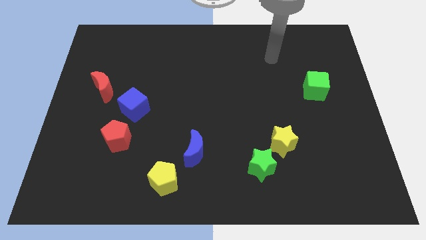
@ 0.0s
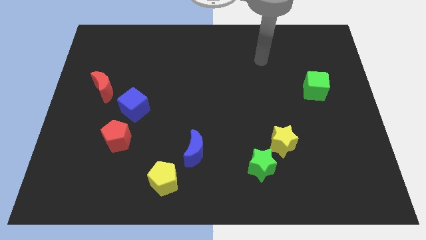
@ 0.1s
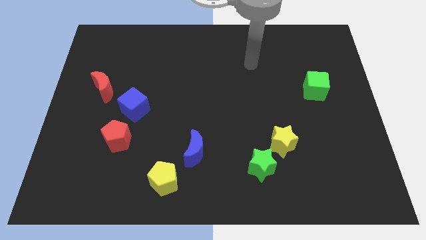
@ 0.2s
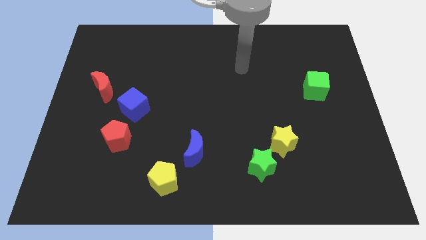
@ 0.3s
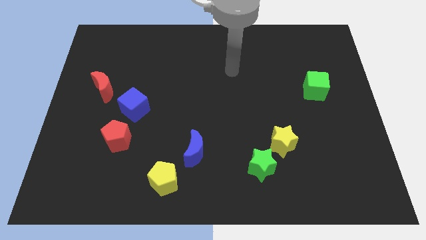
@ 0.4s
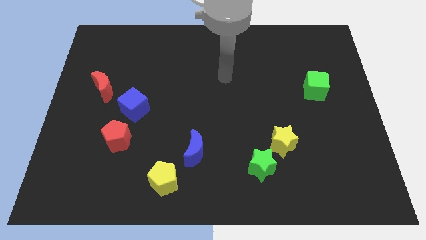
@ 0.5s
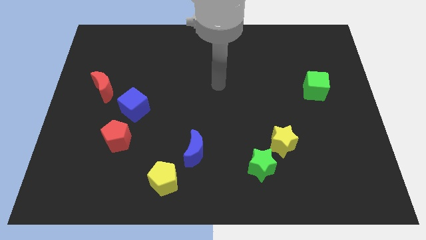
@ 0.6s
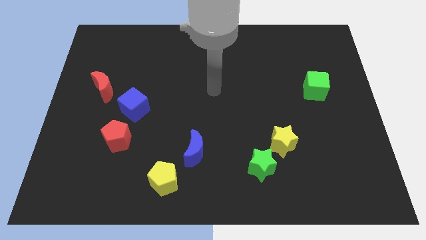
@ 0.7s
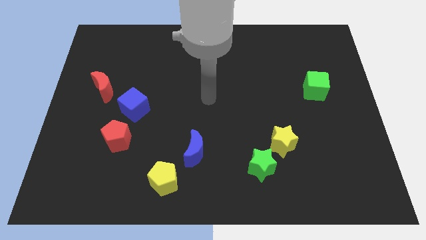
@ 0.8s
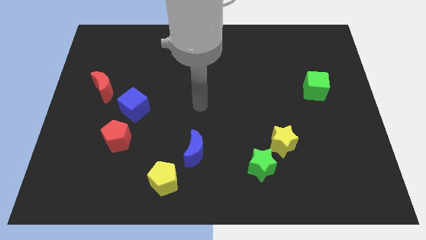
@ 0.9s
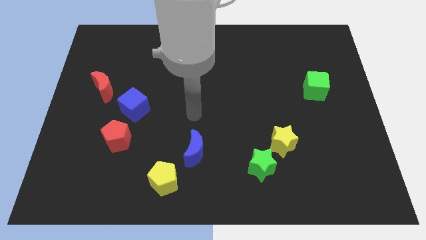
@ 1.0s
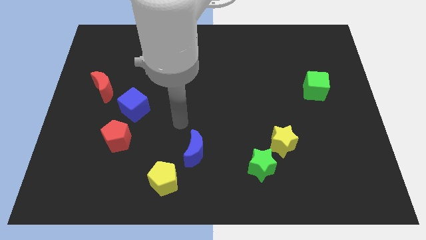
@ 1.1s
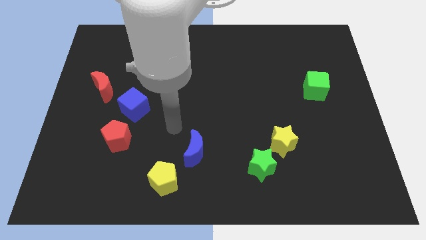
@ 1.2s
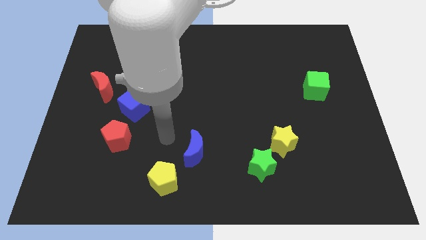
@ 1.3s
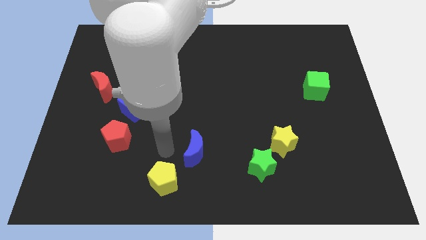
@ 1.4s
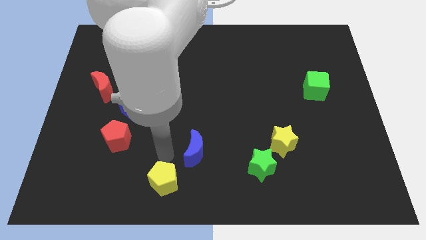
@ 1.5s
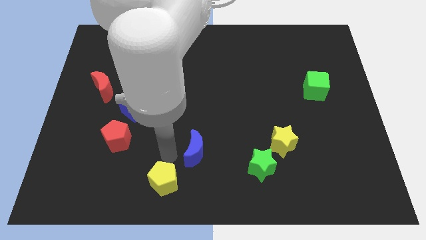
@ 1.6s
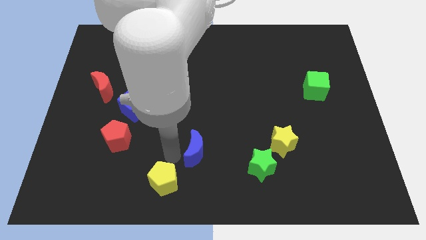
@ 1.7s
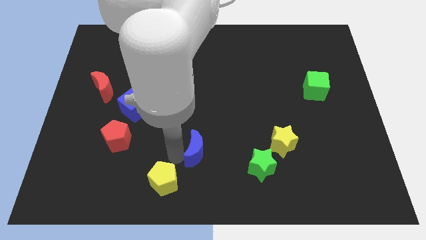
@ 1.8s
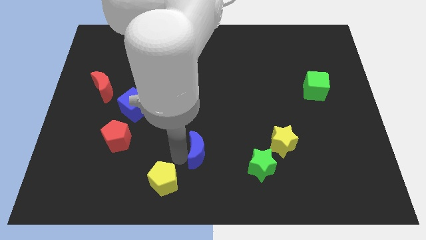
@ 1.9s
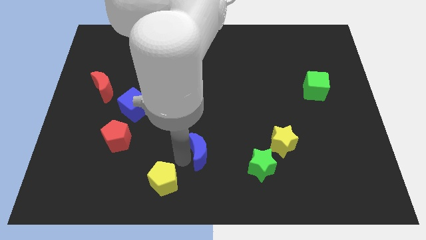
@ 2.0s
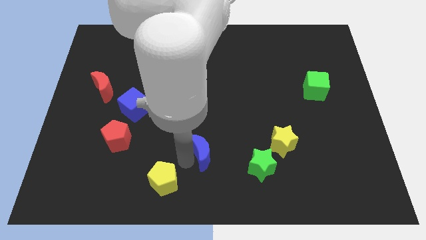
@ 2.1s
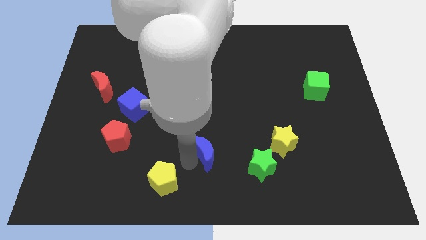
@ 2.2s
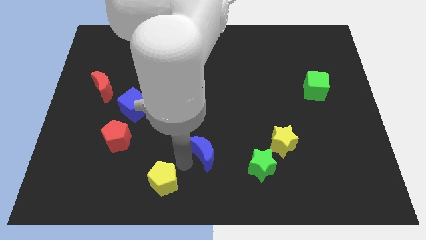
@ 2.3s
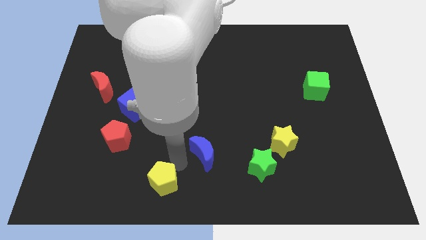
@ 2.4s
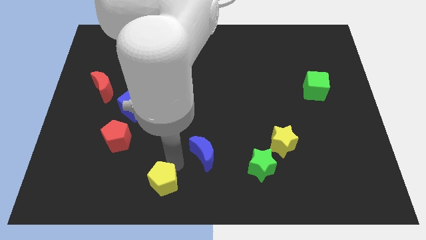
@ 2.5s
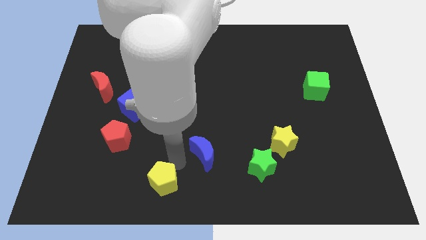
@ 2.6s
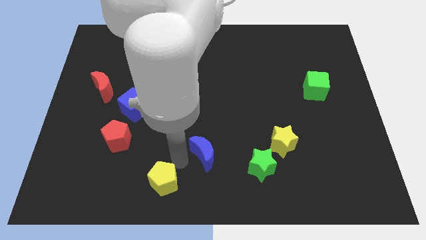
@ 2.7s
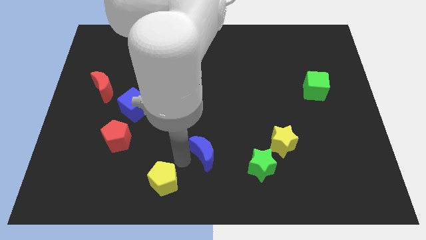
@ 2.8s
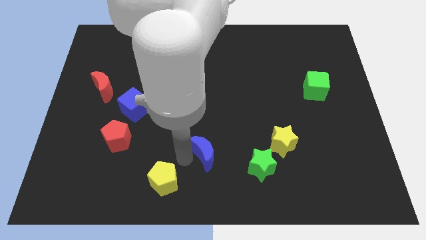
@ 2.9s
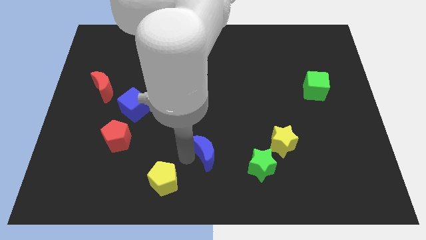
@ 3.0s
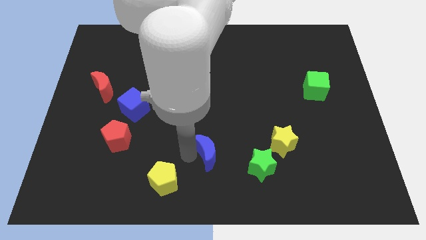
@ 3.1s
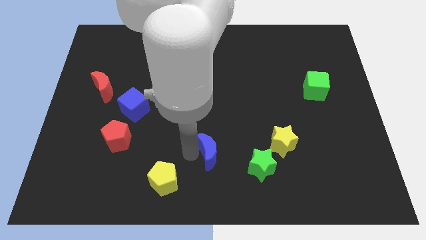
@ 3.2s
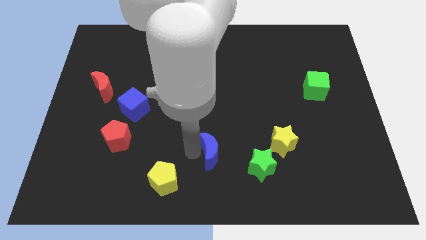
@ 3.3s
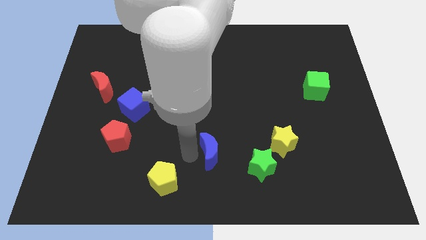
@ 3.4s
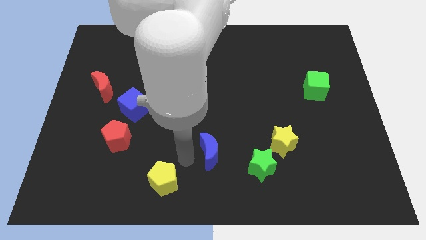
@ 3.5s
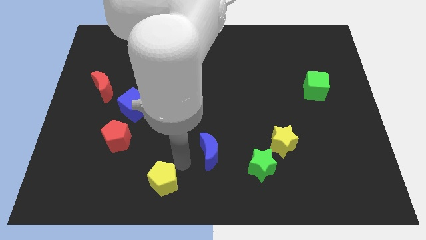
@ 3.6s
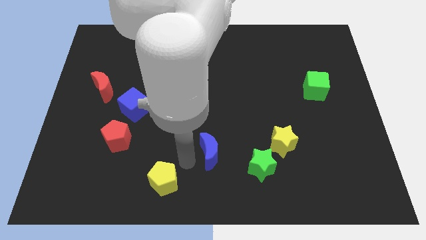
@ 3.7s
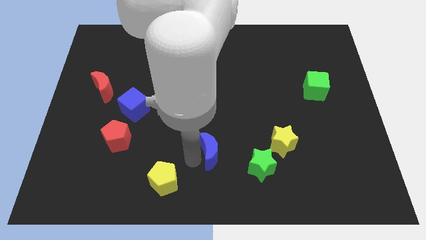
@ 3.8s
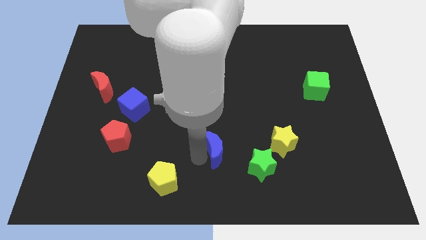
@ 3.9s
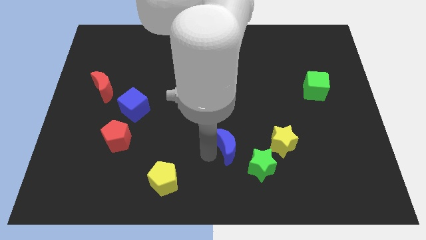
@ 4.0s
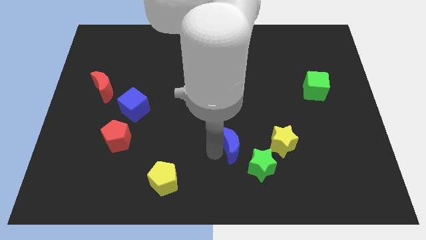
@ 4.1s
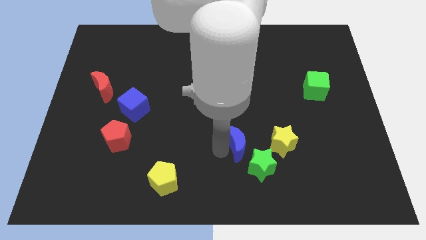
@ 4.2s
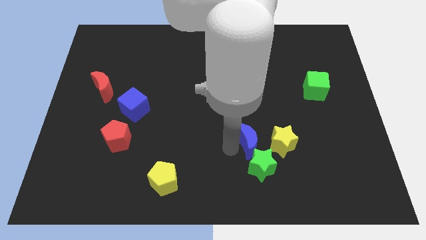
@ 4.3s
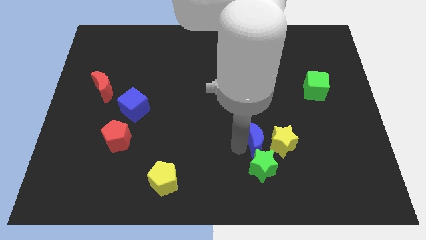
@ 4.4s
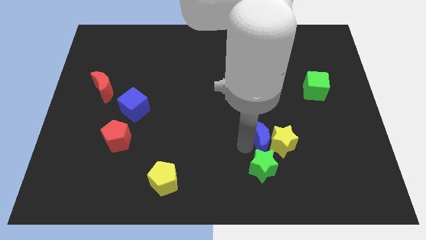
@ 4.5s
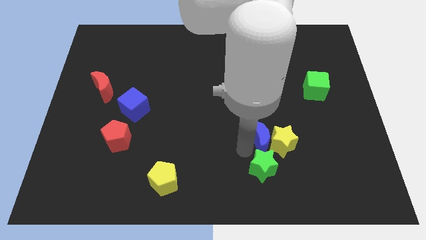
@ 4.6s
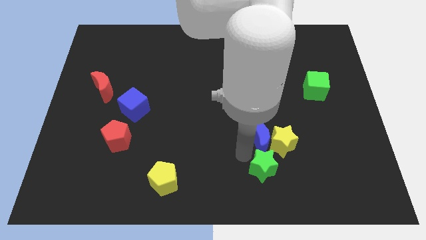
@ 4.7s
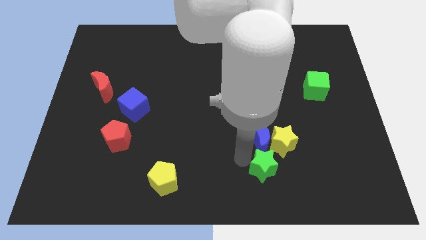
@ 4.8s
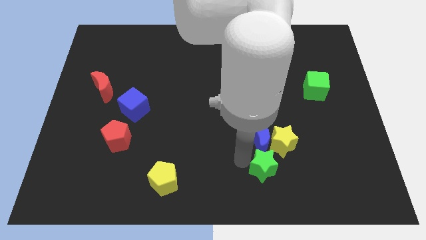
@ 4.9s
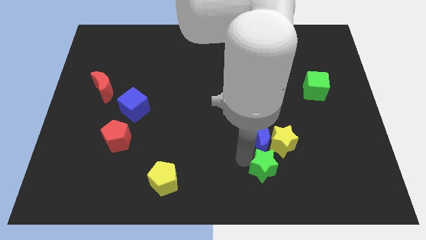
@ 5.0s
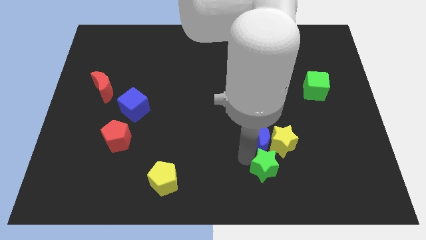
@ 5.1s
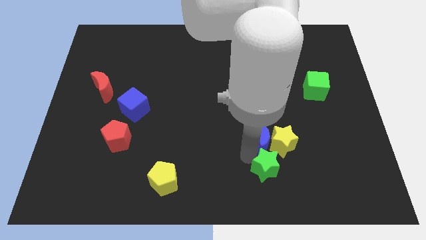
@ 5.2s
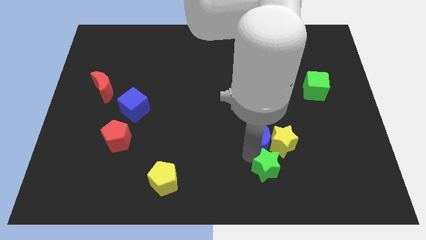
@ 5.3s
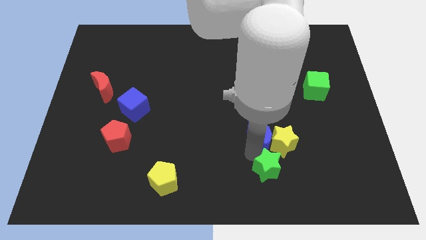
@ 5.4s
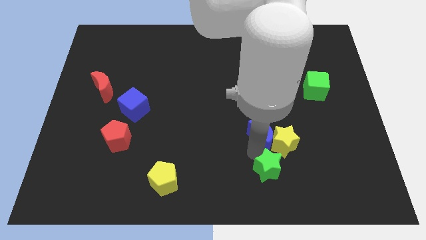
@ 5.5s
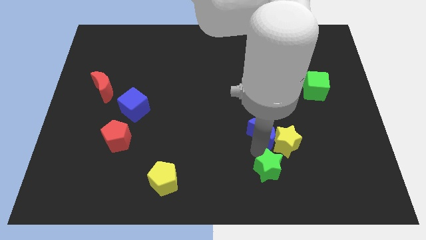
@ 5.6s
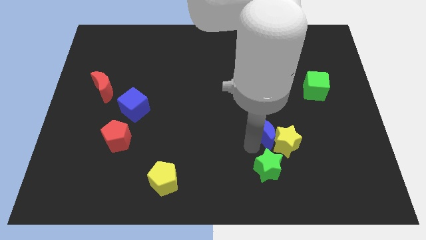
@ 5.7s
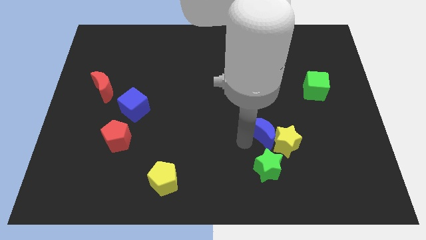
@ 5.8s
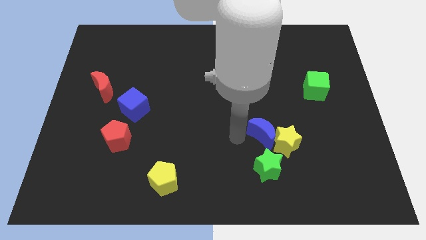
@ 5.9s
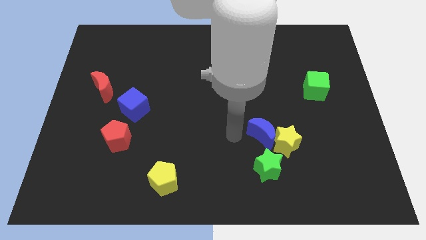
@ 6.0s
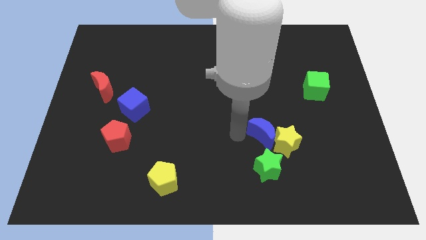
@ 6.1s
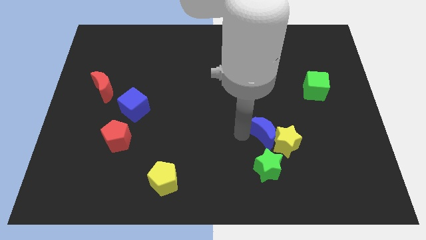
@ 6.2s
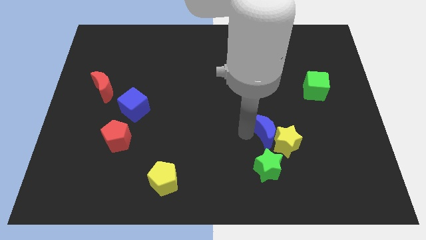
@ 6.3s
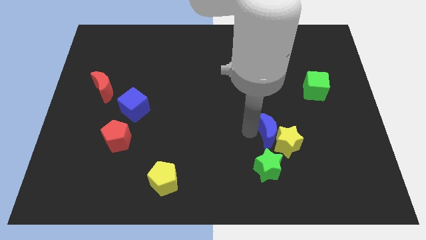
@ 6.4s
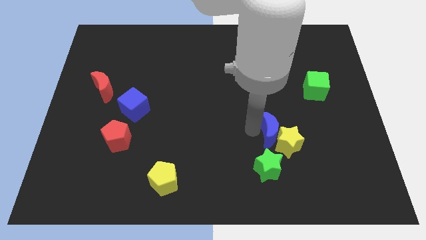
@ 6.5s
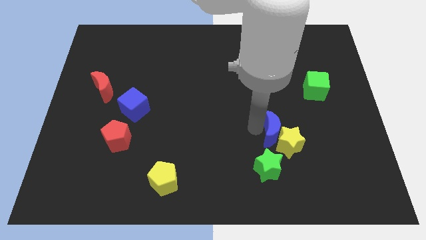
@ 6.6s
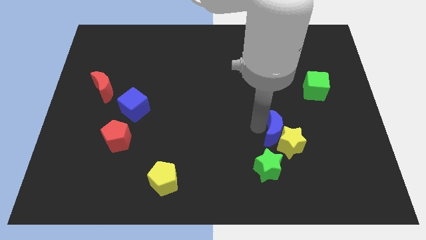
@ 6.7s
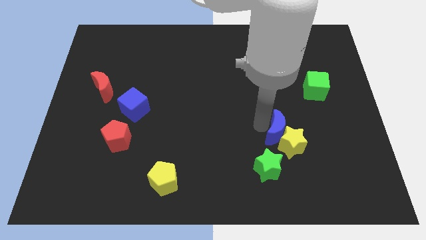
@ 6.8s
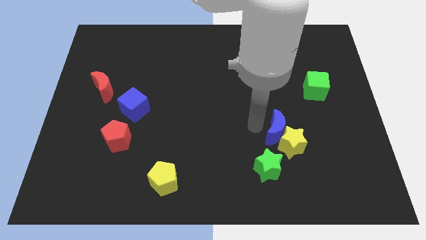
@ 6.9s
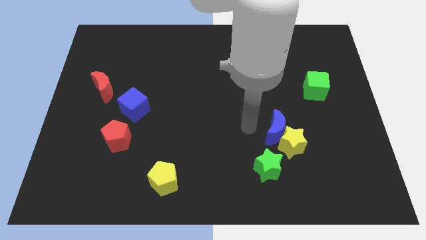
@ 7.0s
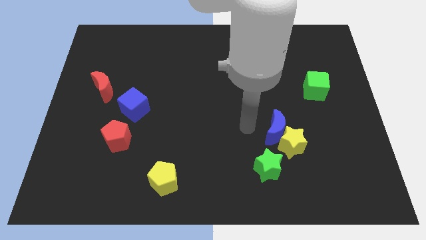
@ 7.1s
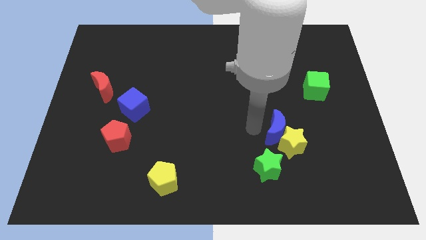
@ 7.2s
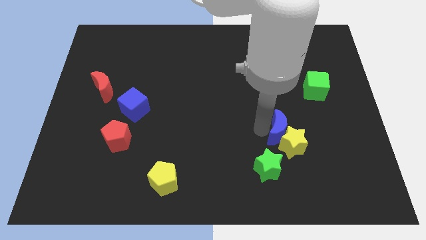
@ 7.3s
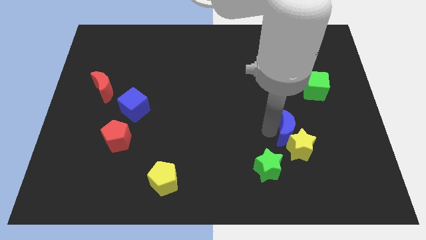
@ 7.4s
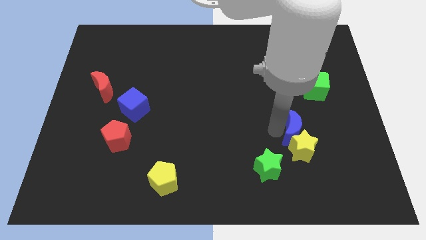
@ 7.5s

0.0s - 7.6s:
move the blue moon right

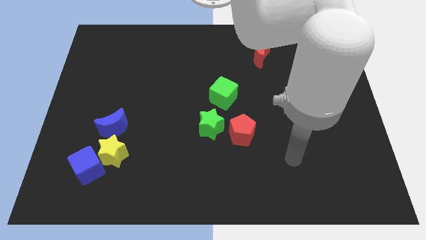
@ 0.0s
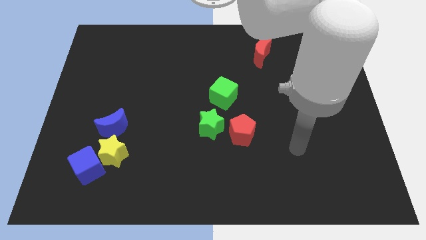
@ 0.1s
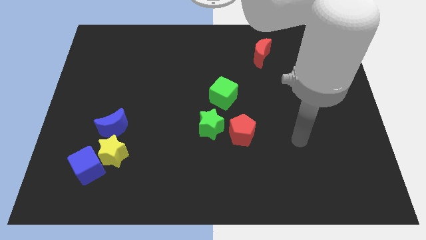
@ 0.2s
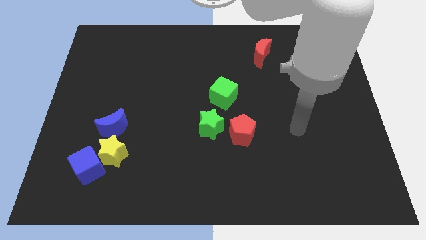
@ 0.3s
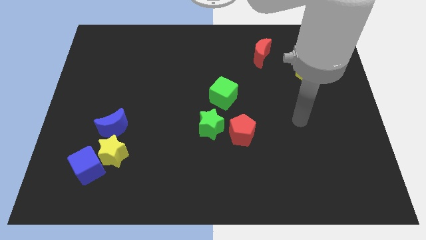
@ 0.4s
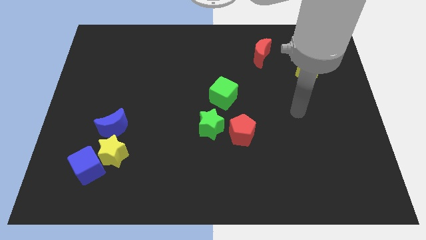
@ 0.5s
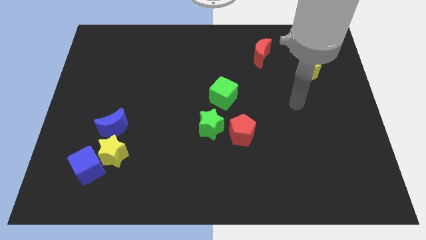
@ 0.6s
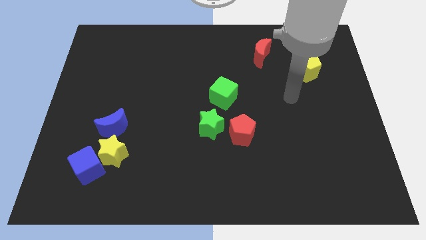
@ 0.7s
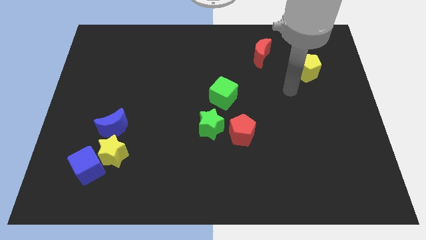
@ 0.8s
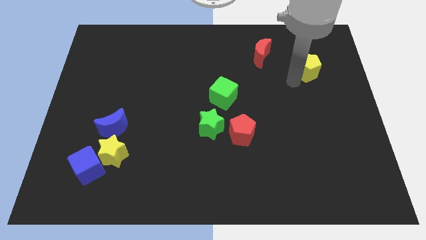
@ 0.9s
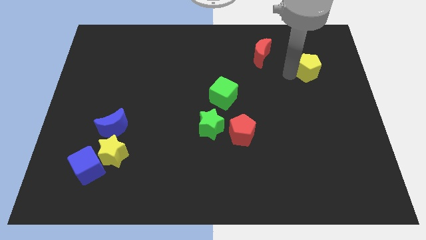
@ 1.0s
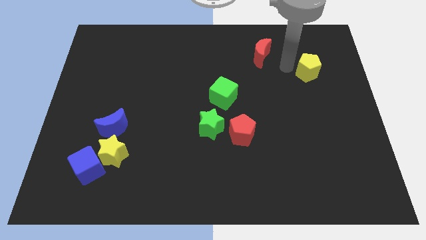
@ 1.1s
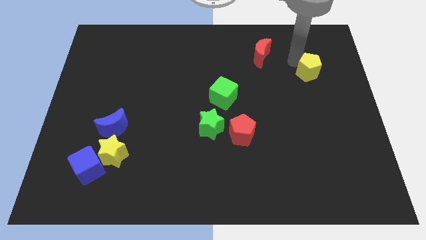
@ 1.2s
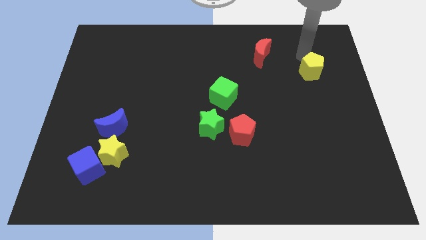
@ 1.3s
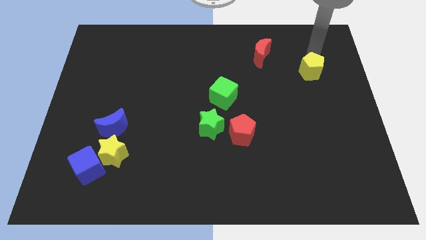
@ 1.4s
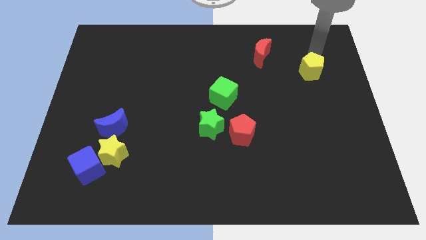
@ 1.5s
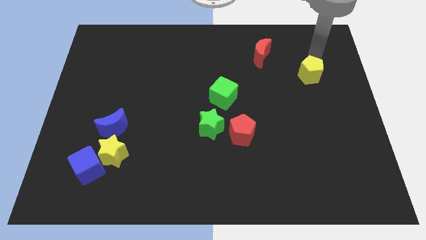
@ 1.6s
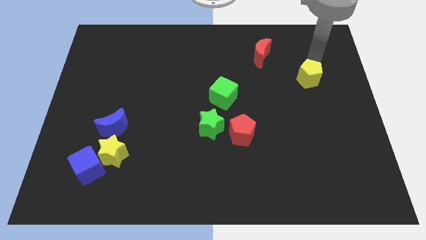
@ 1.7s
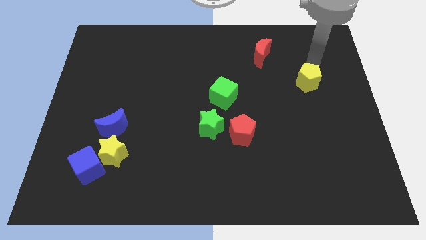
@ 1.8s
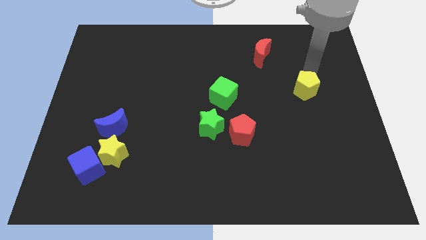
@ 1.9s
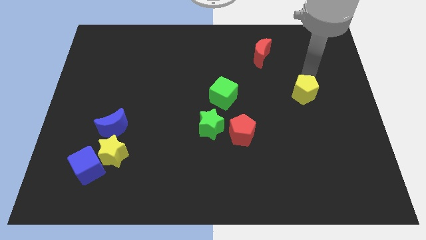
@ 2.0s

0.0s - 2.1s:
slightly slide the yellow pentagon downwards
